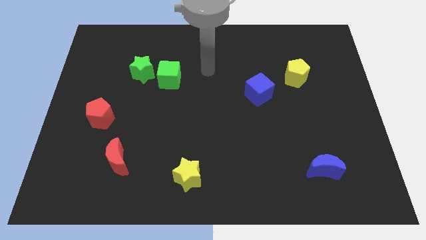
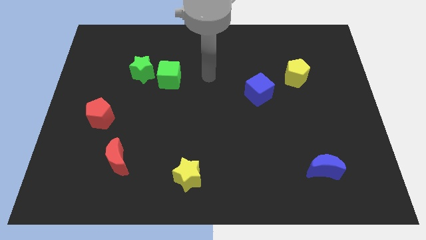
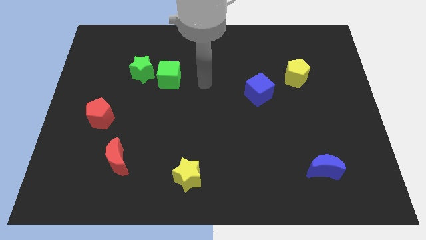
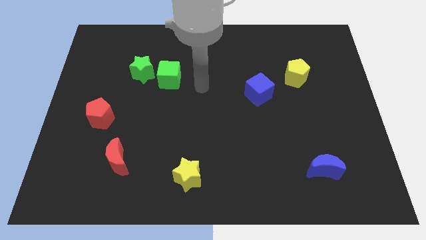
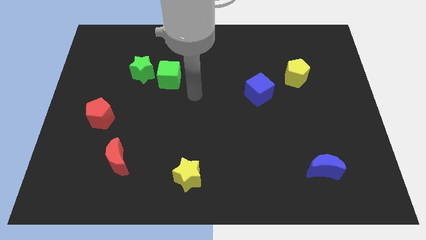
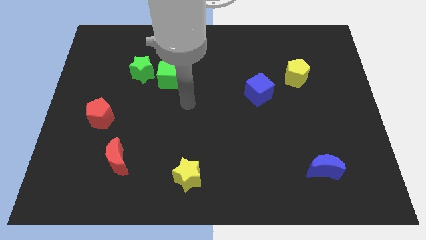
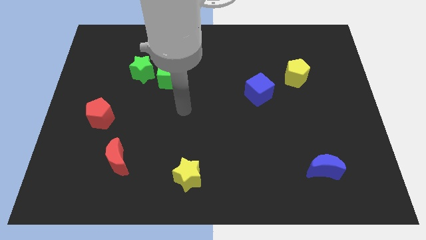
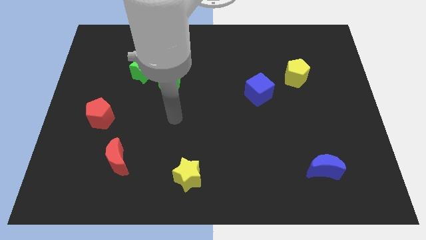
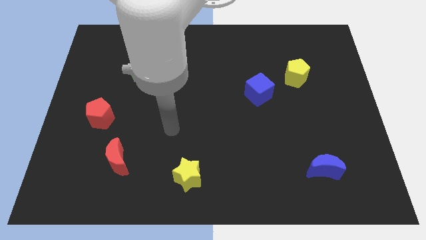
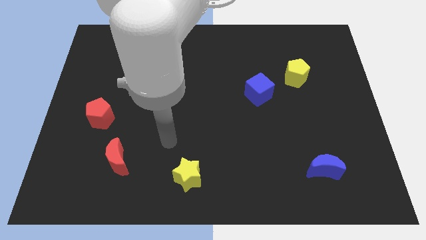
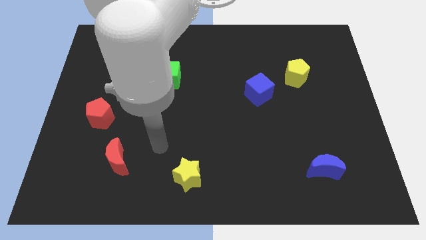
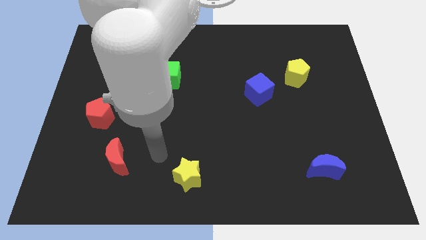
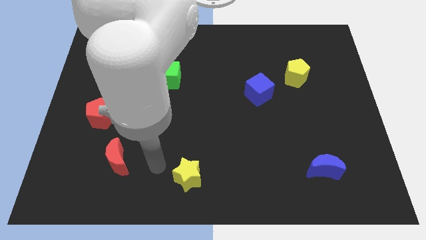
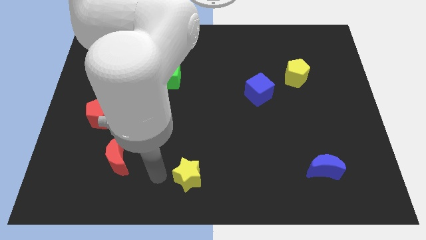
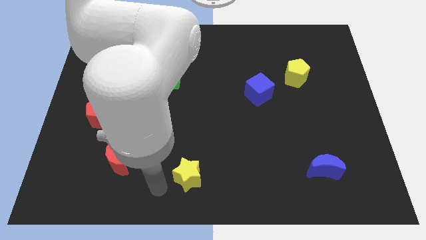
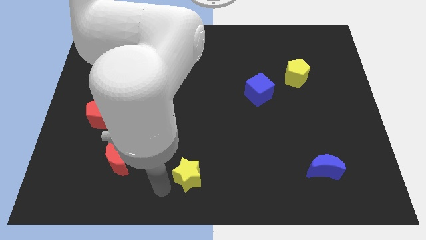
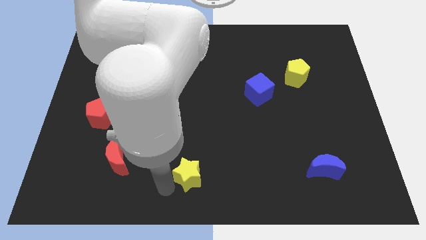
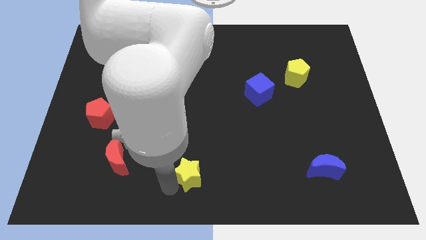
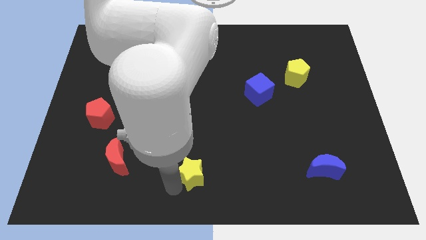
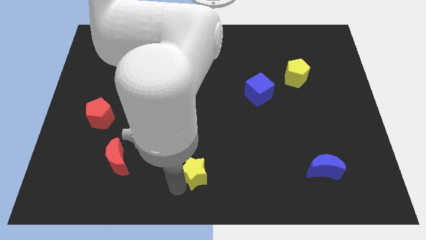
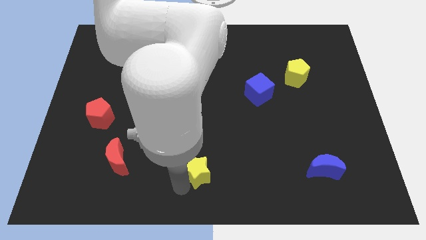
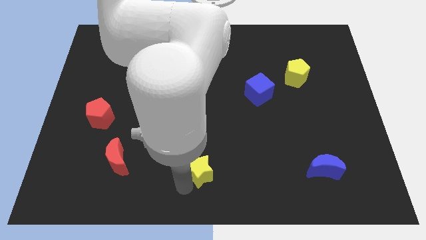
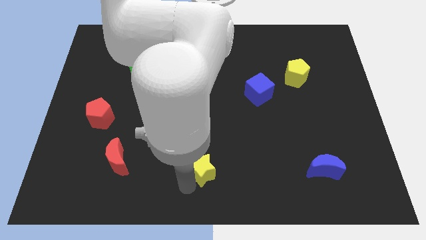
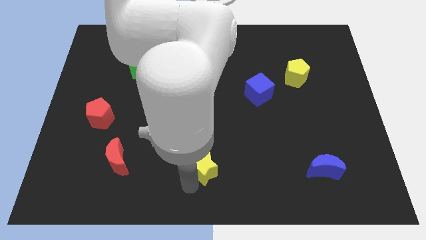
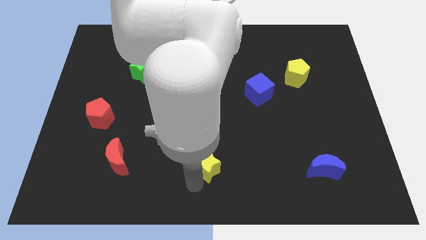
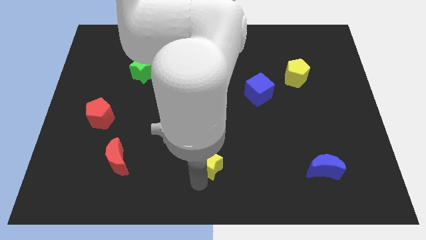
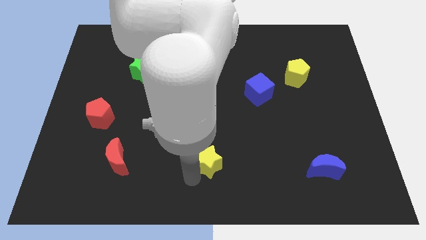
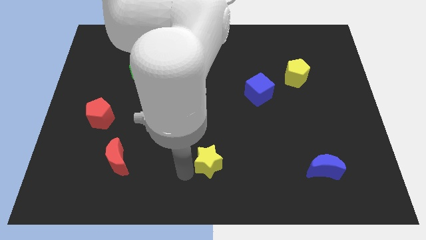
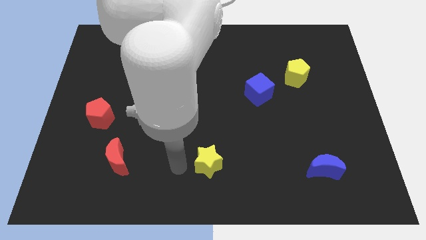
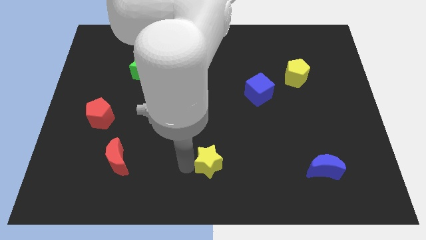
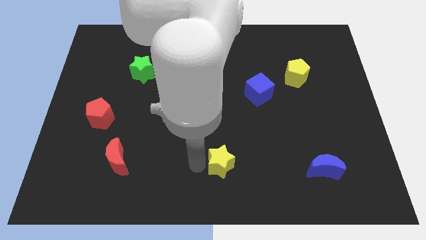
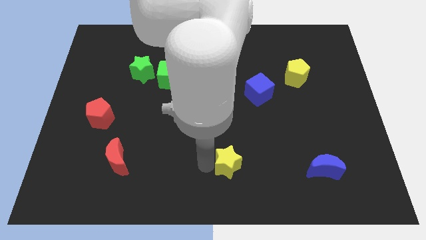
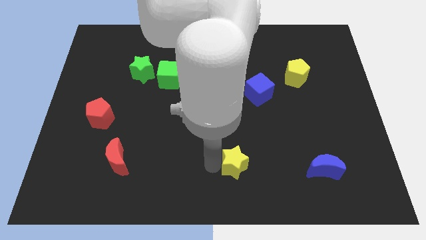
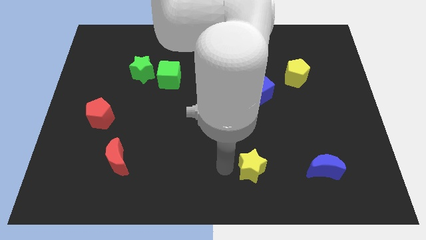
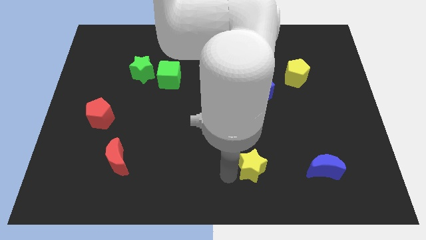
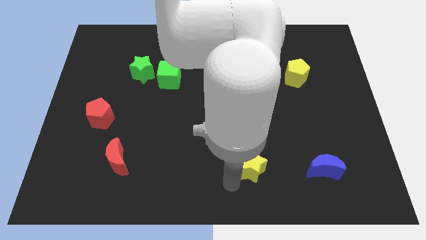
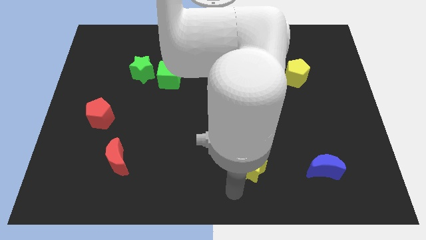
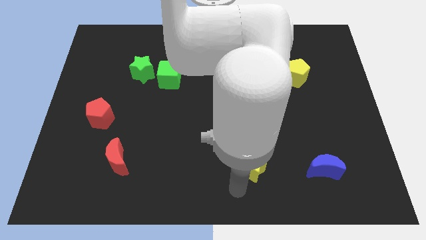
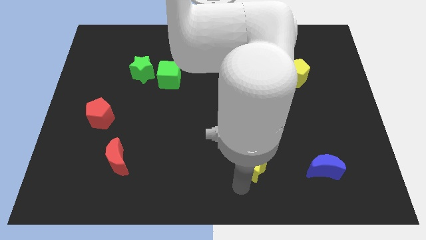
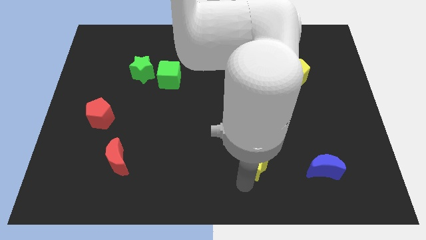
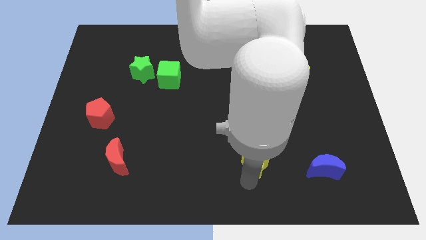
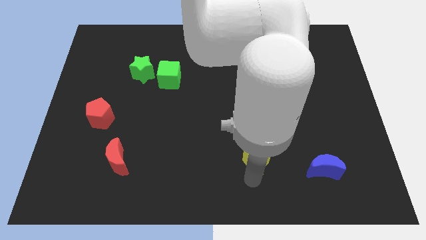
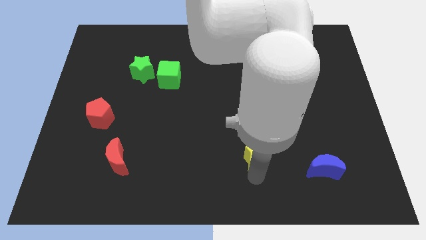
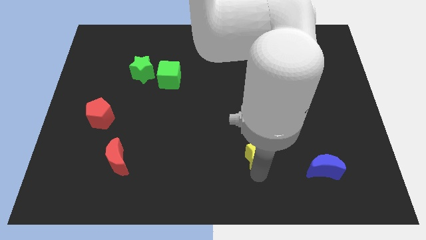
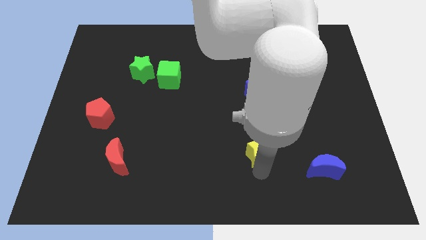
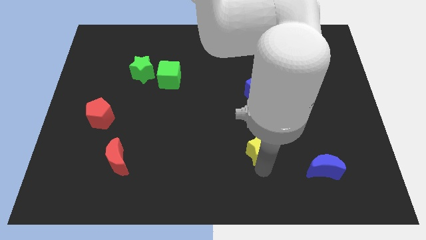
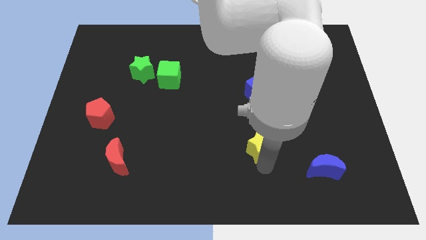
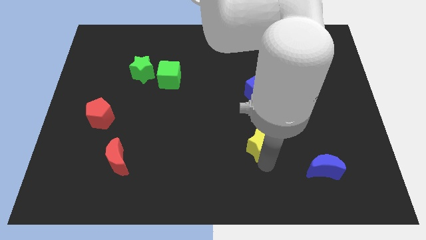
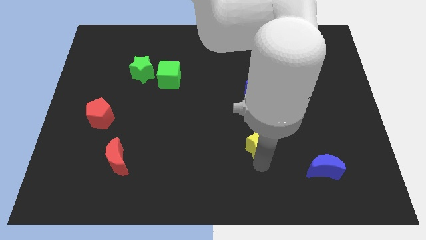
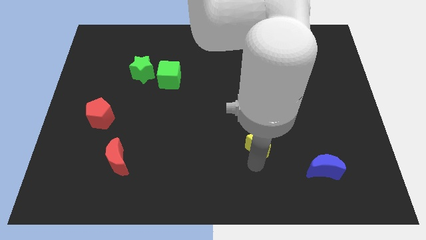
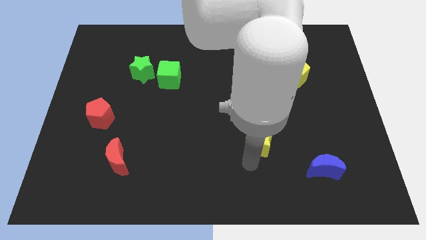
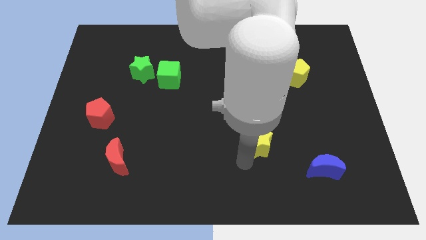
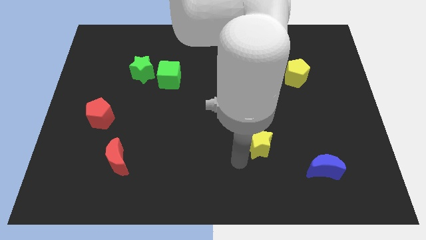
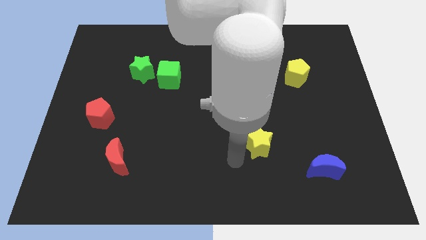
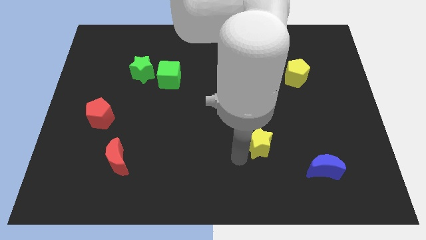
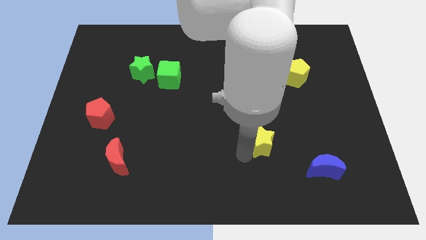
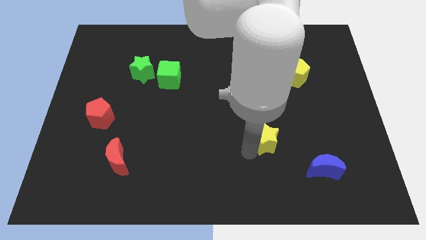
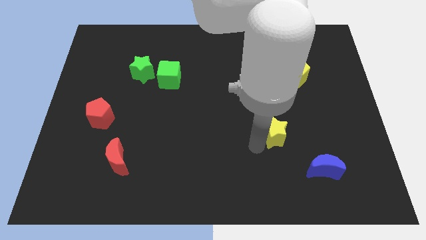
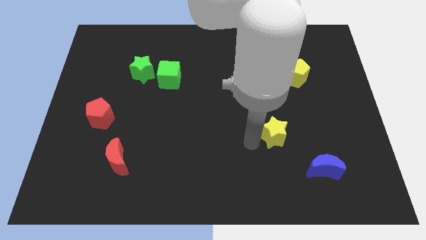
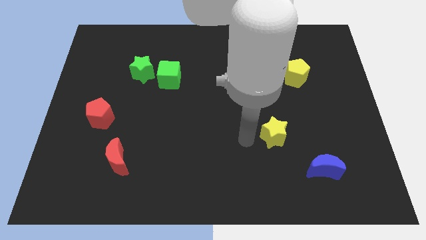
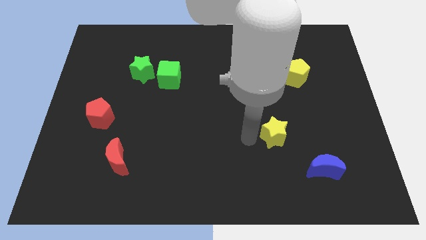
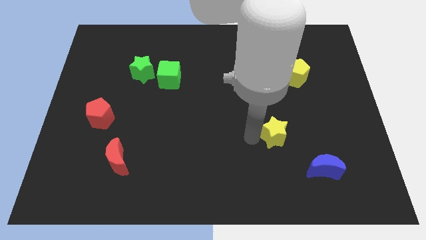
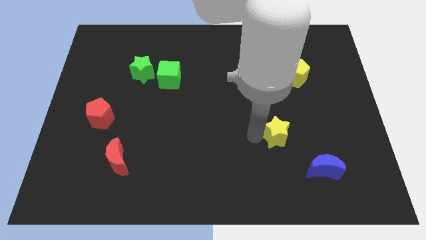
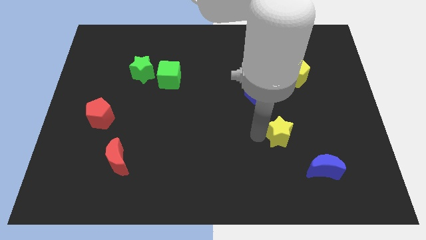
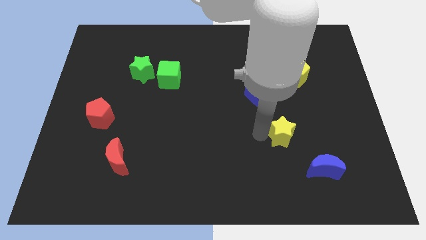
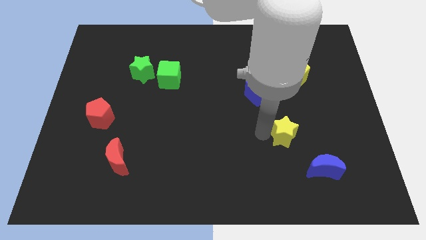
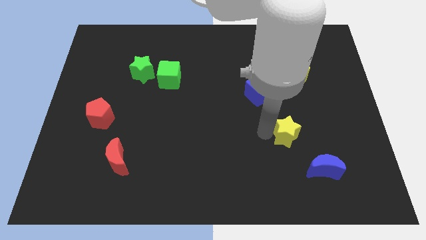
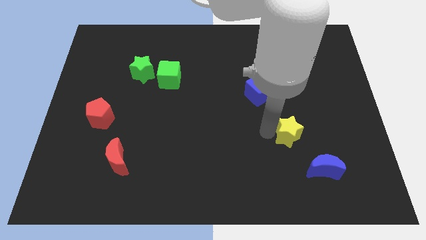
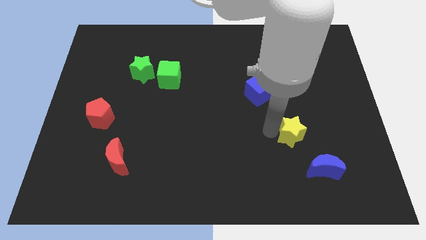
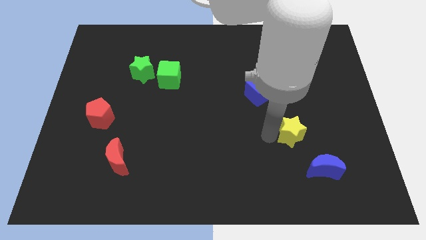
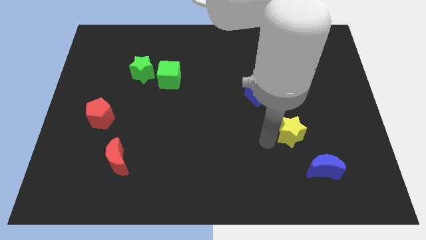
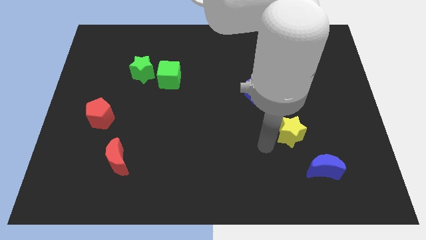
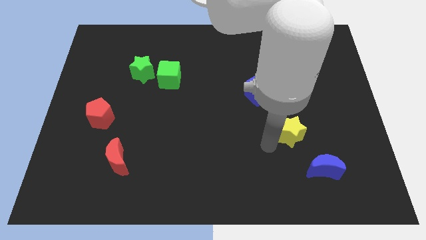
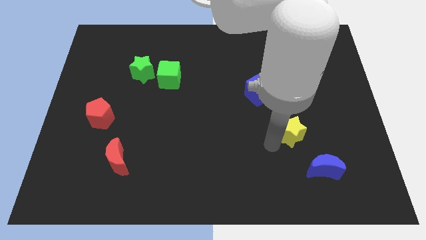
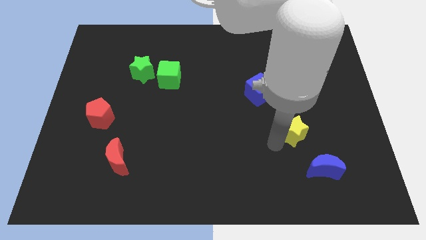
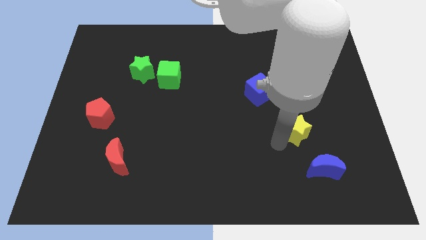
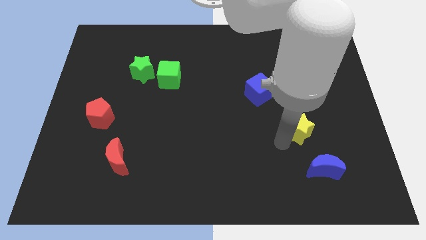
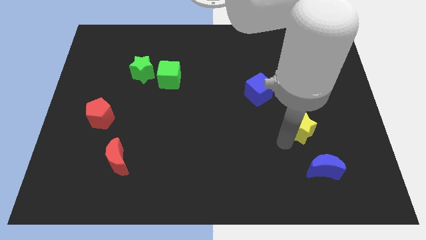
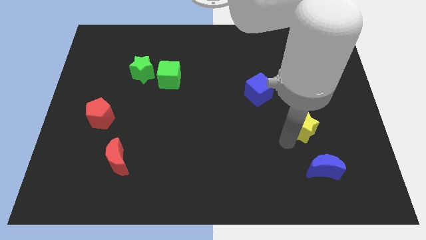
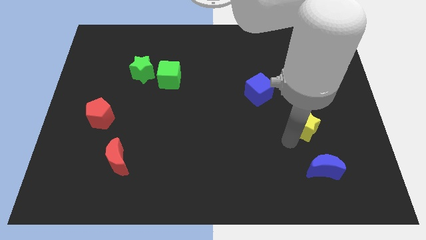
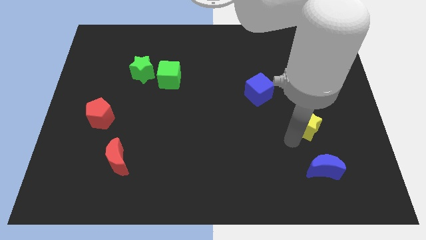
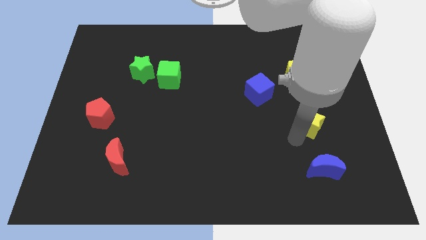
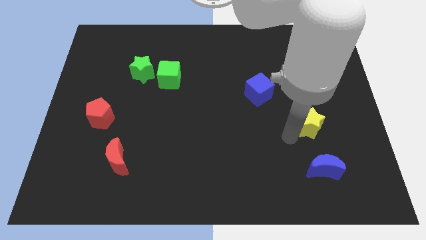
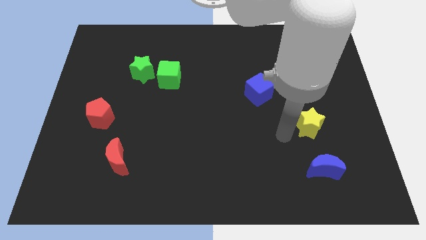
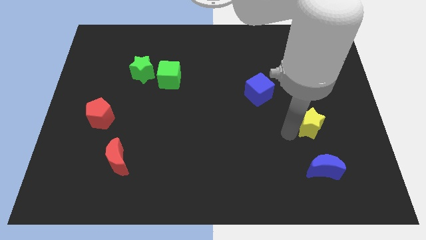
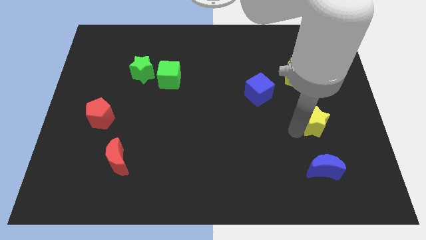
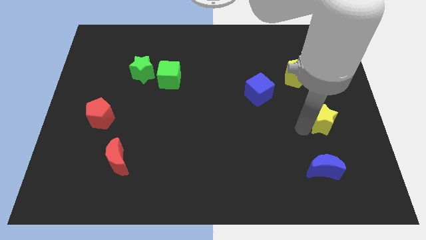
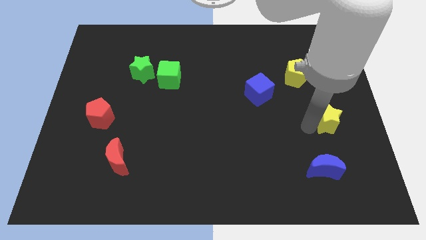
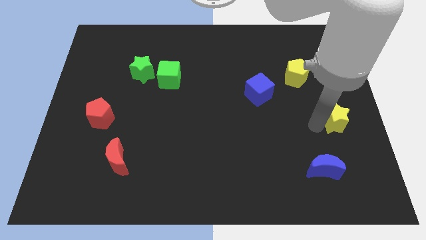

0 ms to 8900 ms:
move the yellow star to the right side
